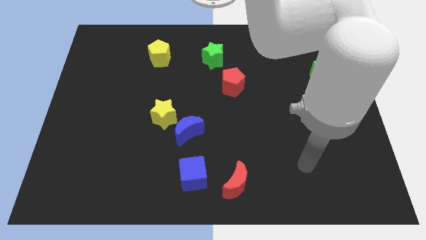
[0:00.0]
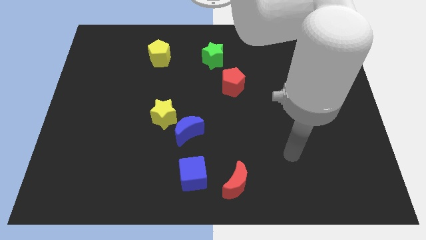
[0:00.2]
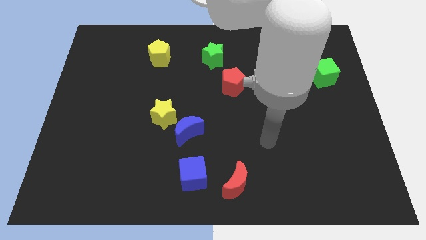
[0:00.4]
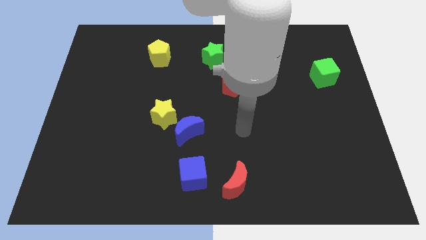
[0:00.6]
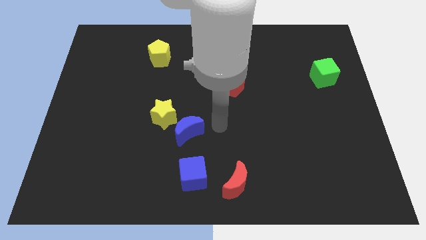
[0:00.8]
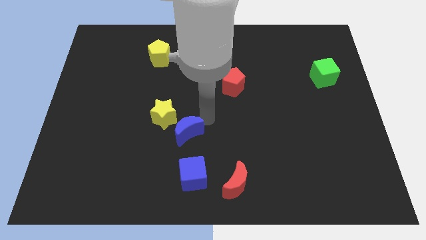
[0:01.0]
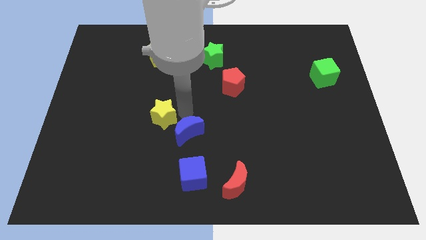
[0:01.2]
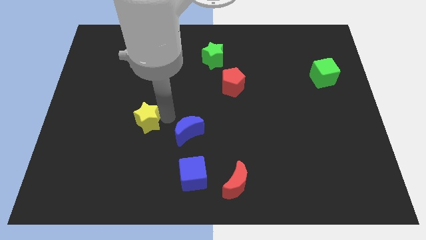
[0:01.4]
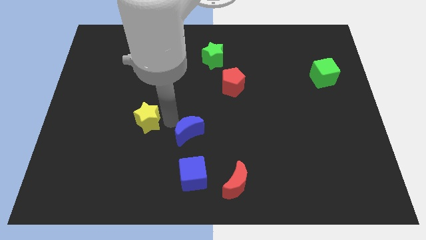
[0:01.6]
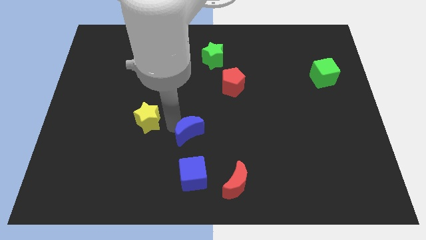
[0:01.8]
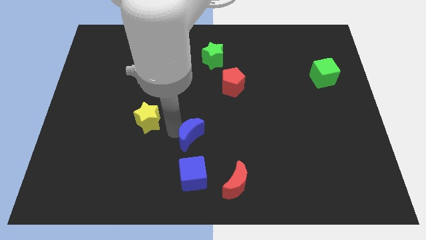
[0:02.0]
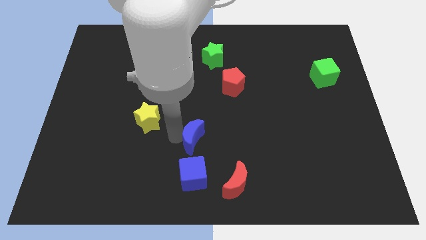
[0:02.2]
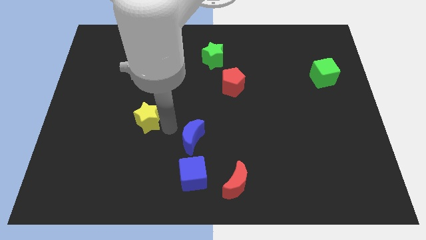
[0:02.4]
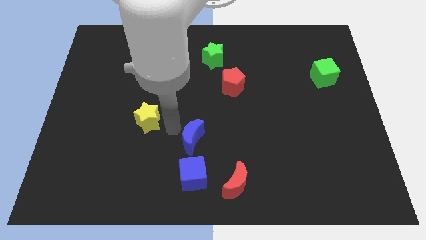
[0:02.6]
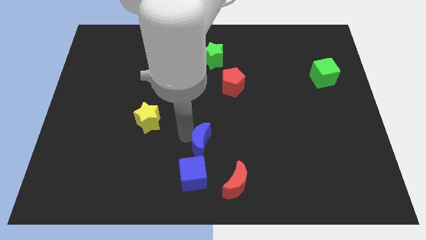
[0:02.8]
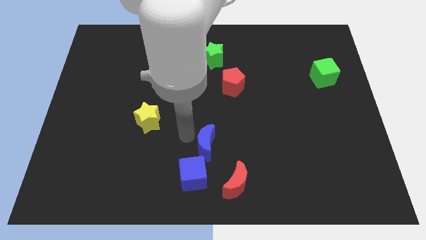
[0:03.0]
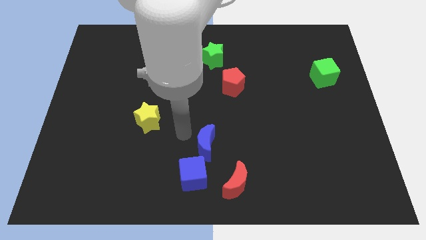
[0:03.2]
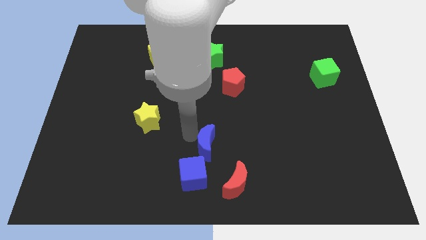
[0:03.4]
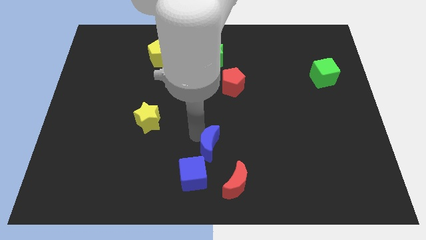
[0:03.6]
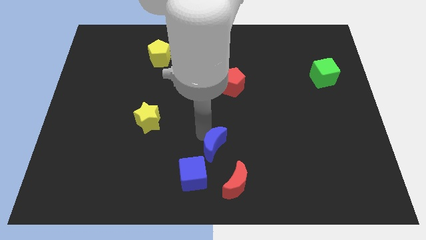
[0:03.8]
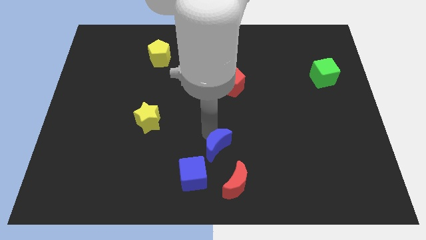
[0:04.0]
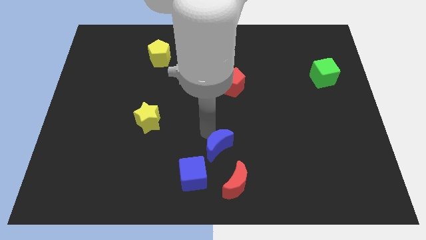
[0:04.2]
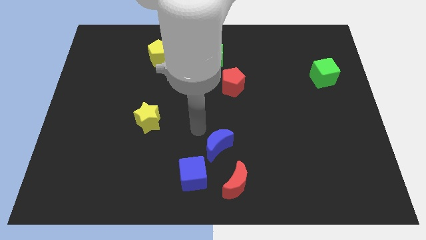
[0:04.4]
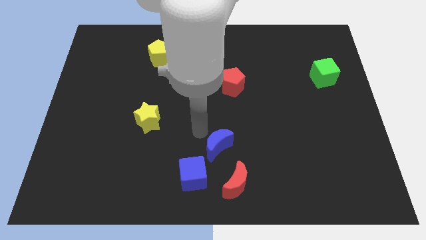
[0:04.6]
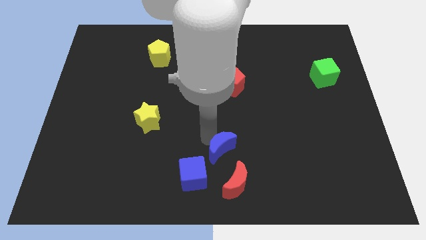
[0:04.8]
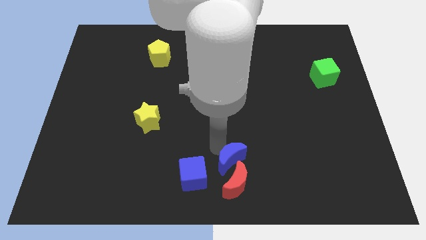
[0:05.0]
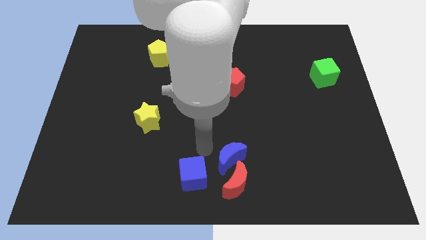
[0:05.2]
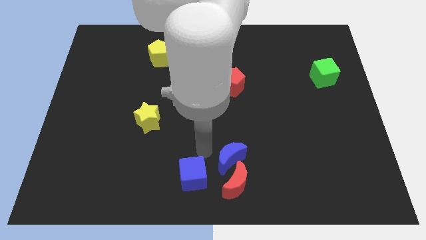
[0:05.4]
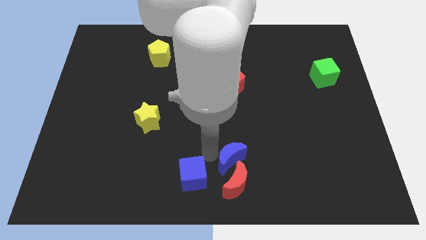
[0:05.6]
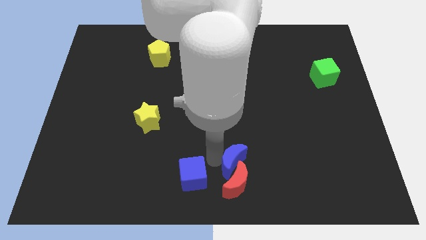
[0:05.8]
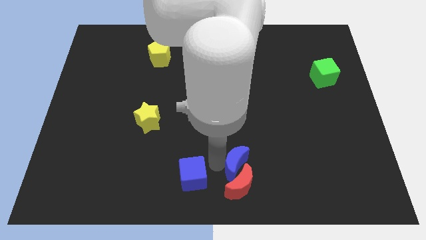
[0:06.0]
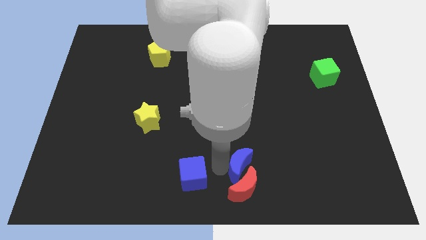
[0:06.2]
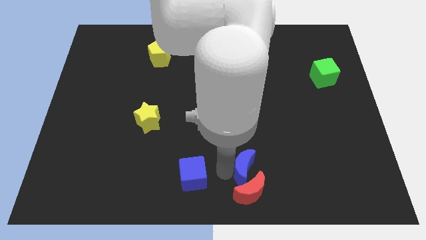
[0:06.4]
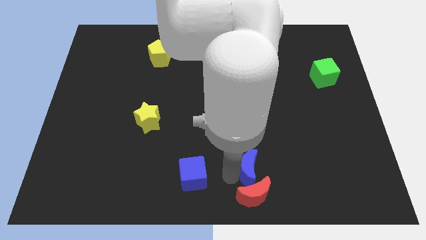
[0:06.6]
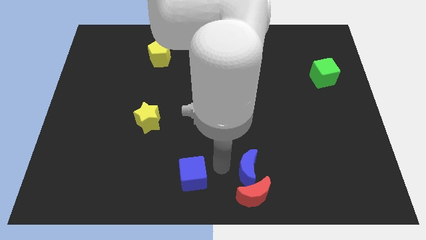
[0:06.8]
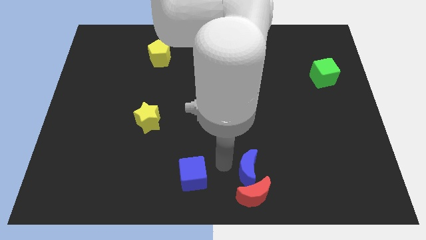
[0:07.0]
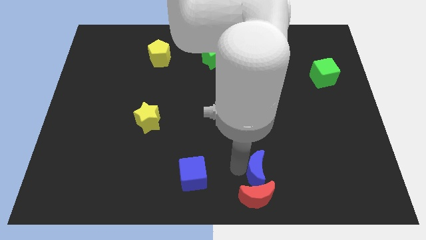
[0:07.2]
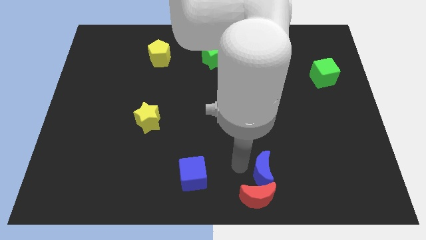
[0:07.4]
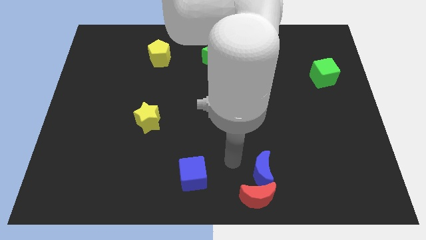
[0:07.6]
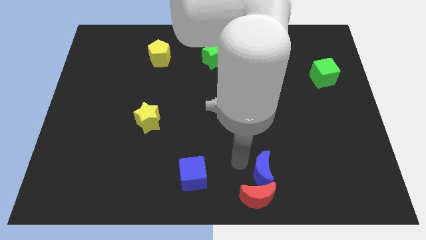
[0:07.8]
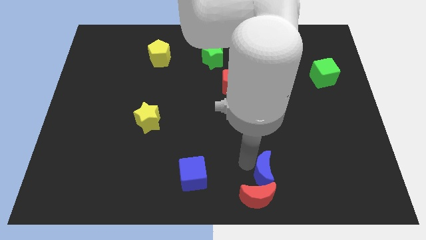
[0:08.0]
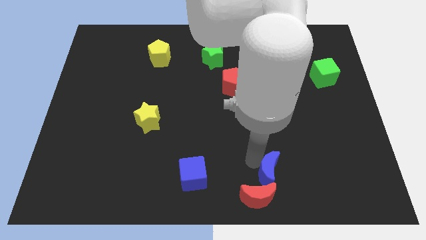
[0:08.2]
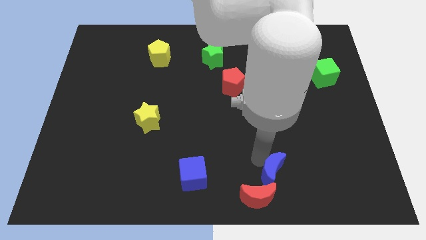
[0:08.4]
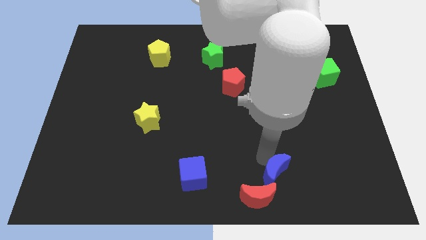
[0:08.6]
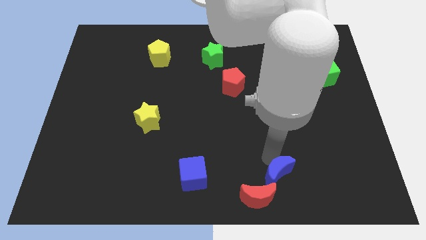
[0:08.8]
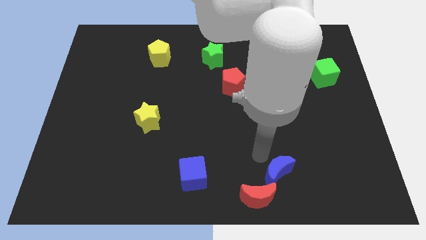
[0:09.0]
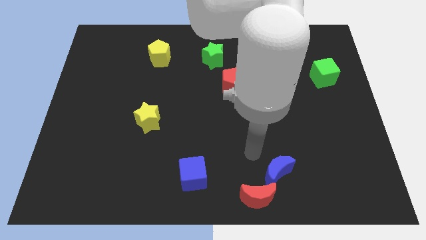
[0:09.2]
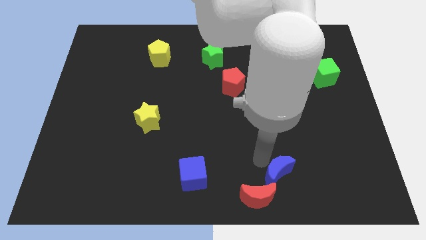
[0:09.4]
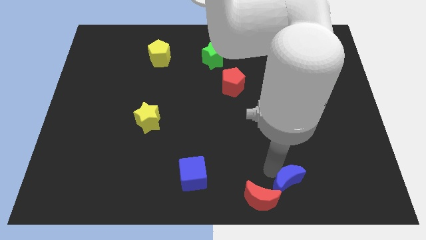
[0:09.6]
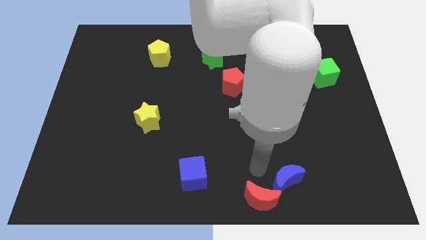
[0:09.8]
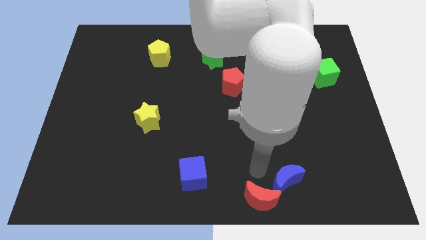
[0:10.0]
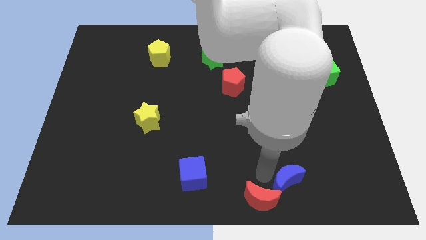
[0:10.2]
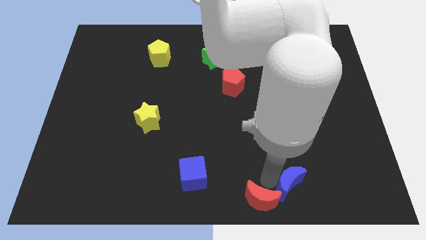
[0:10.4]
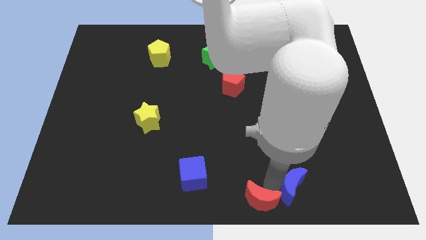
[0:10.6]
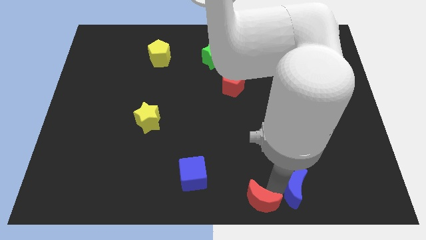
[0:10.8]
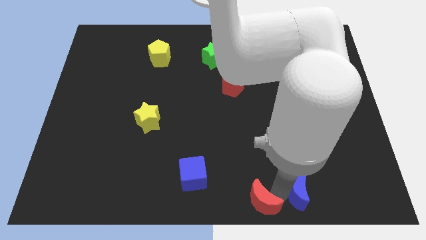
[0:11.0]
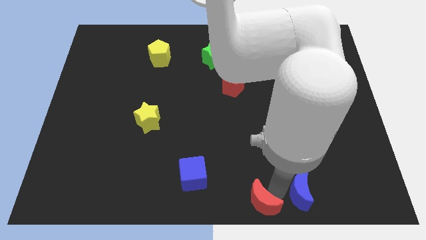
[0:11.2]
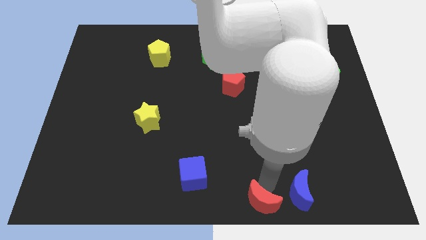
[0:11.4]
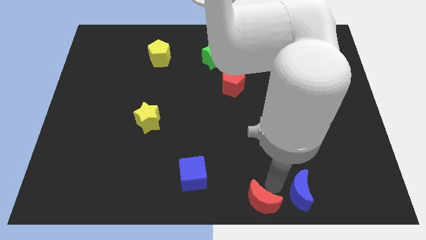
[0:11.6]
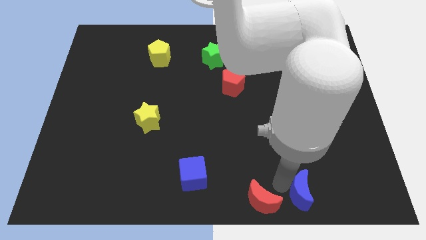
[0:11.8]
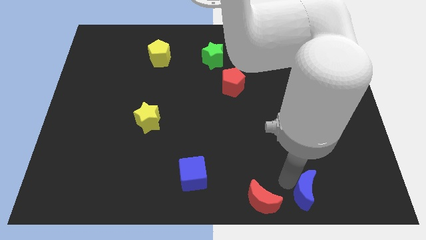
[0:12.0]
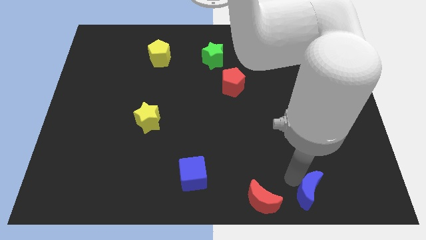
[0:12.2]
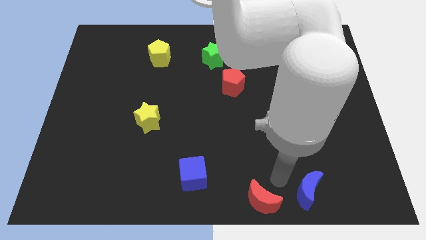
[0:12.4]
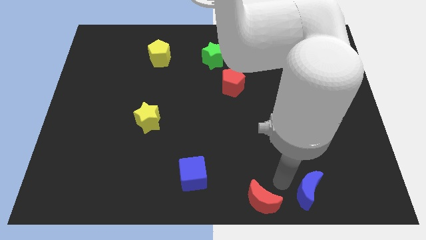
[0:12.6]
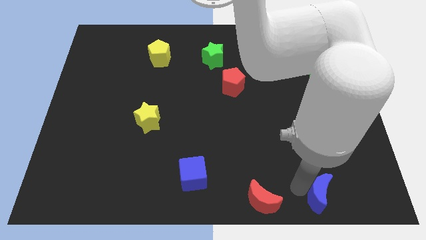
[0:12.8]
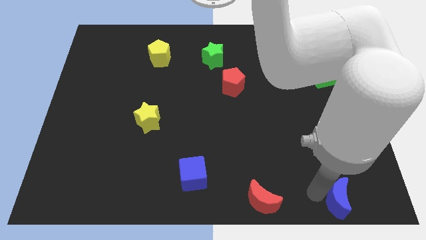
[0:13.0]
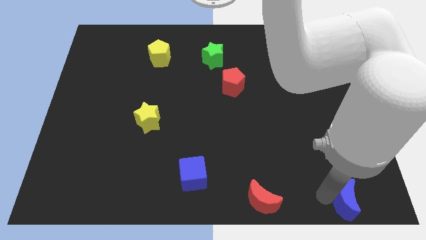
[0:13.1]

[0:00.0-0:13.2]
slide the blue moon to the bottom right of the board
